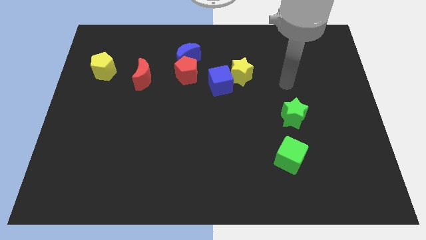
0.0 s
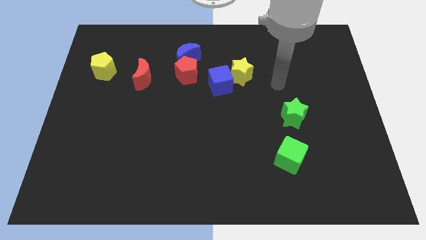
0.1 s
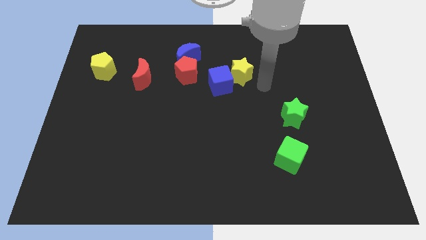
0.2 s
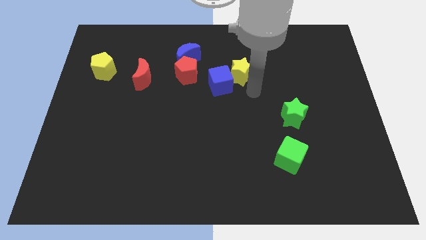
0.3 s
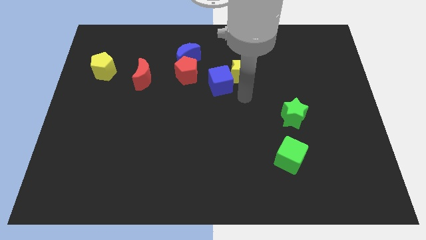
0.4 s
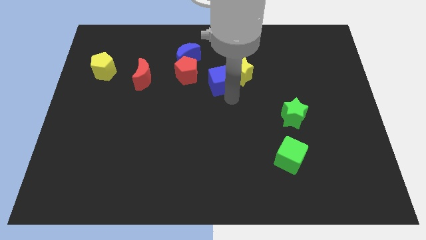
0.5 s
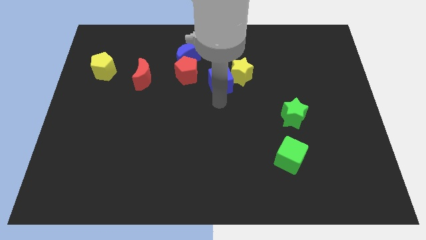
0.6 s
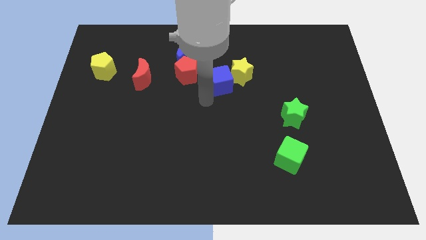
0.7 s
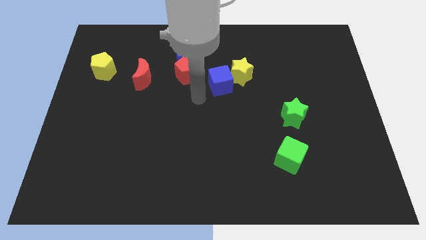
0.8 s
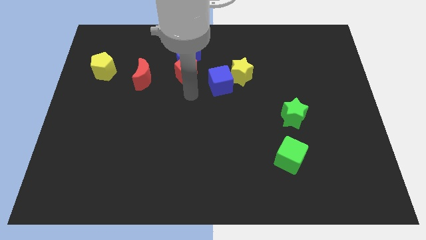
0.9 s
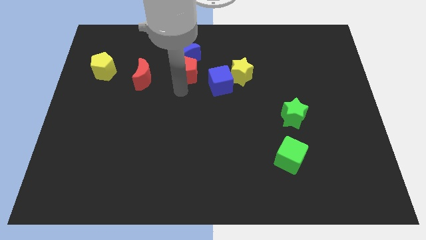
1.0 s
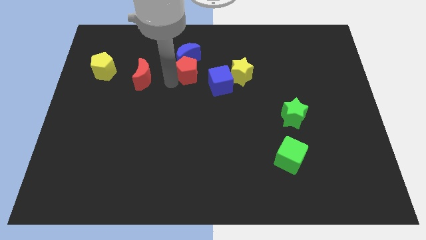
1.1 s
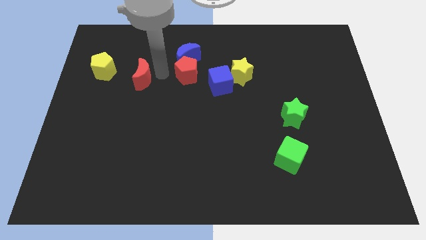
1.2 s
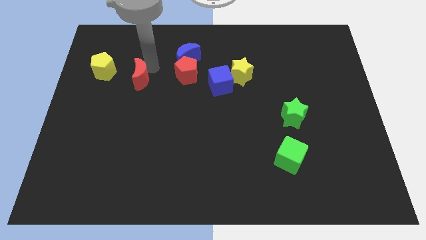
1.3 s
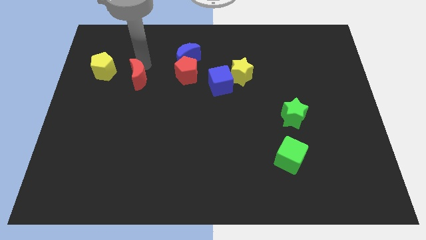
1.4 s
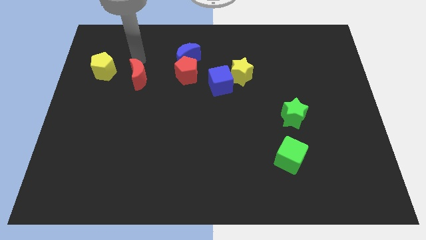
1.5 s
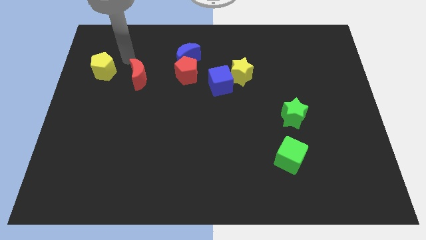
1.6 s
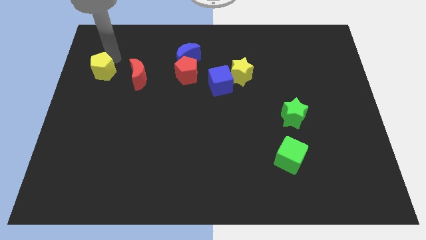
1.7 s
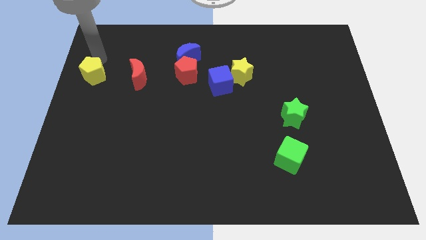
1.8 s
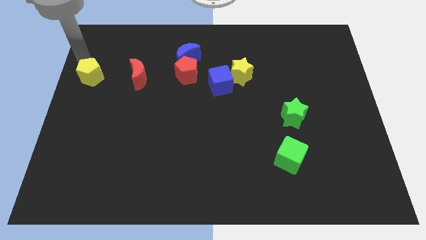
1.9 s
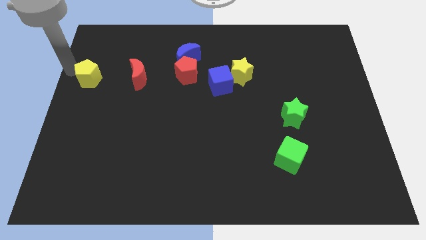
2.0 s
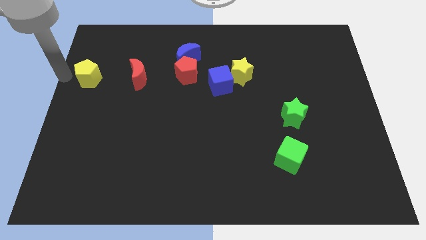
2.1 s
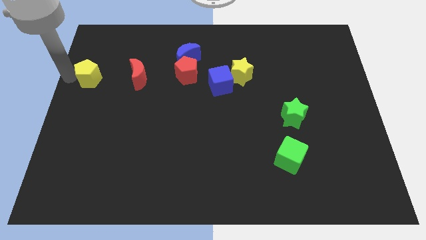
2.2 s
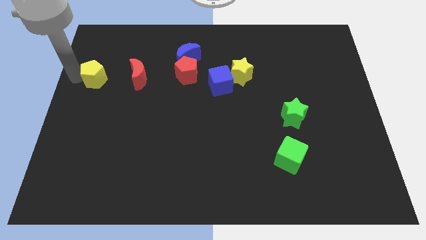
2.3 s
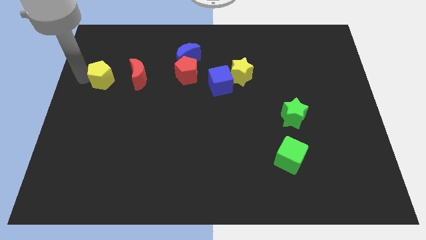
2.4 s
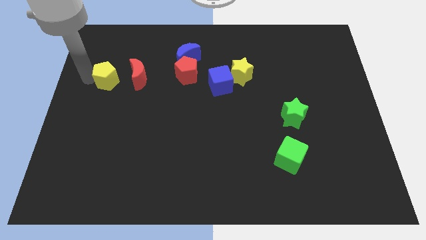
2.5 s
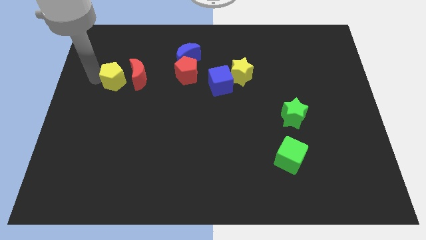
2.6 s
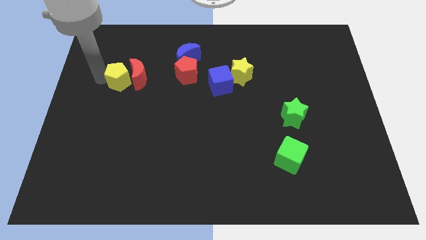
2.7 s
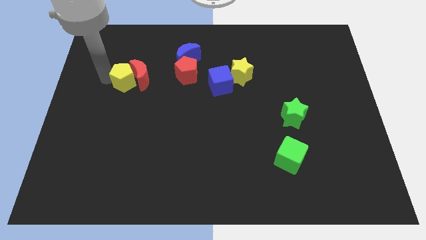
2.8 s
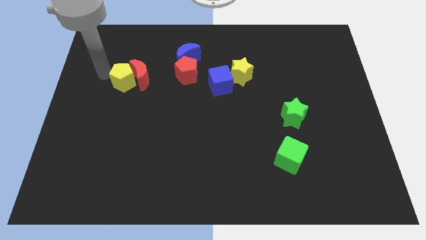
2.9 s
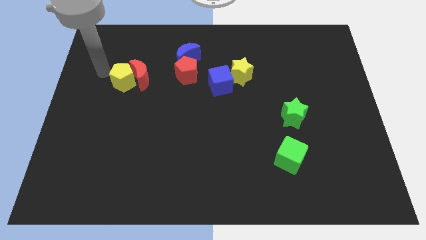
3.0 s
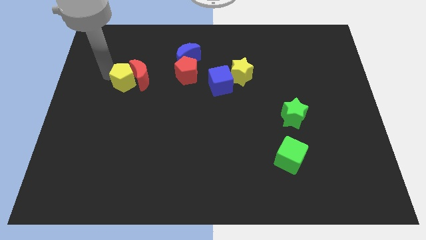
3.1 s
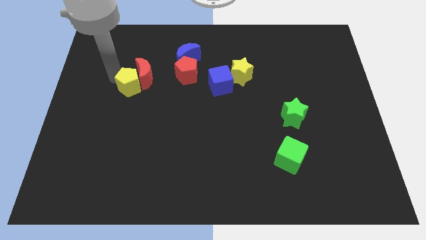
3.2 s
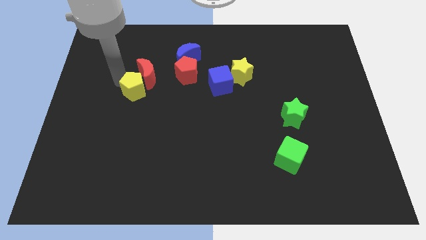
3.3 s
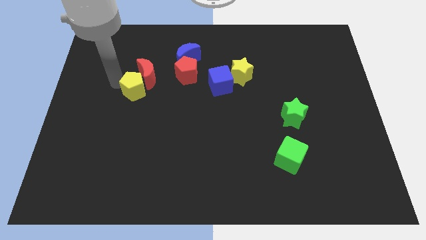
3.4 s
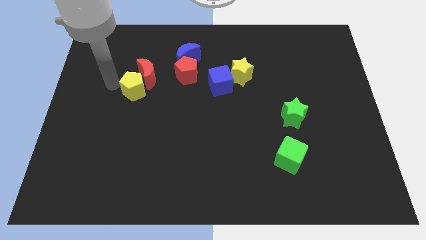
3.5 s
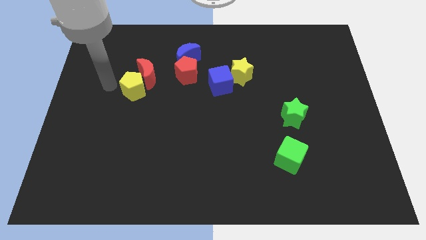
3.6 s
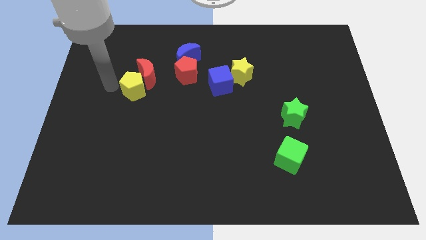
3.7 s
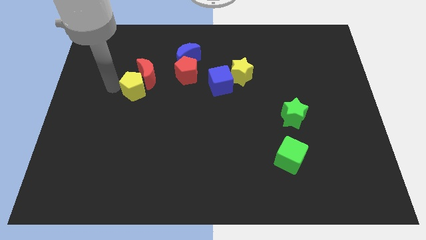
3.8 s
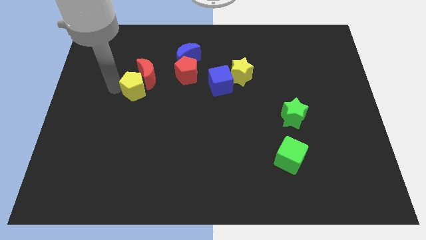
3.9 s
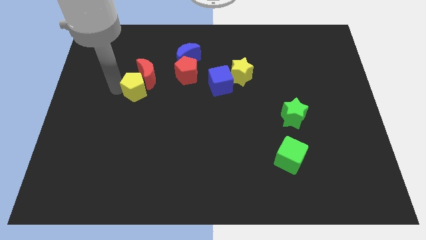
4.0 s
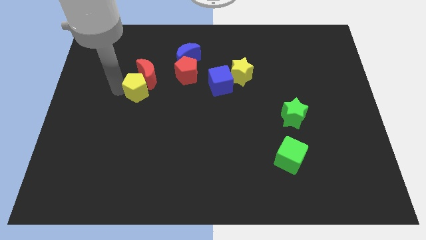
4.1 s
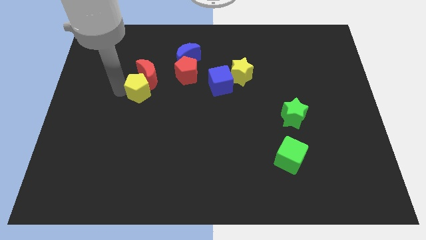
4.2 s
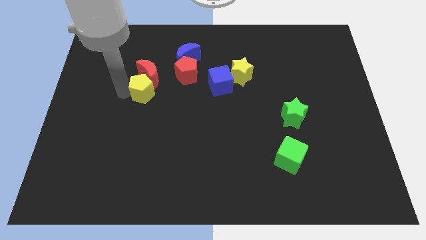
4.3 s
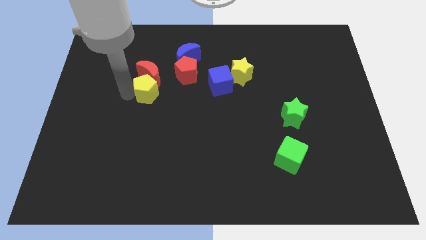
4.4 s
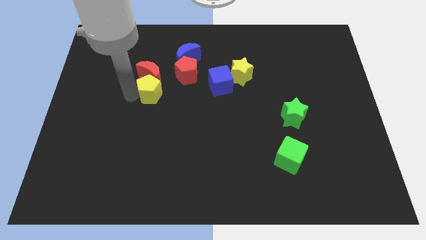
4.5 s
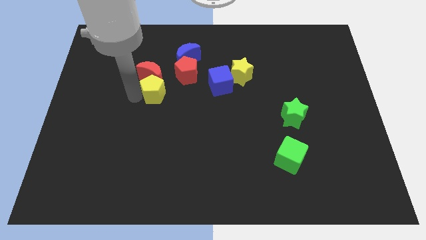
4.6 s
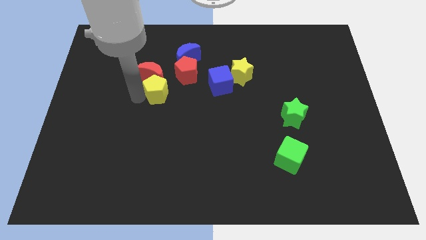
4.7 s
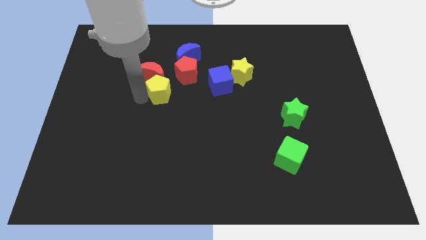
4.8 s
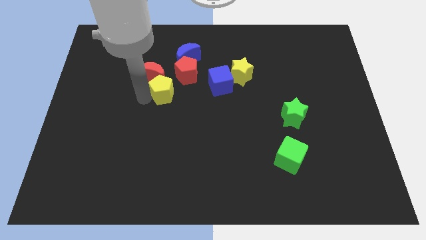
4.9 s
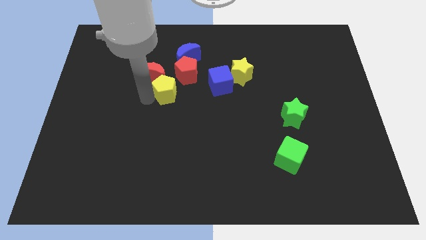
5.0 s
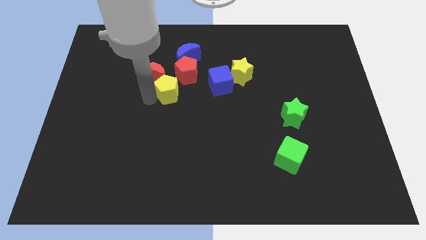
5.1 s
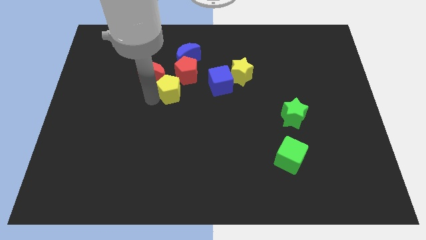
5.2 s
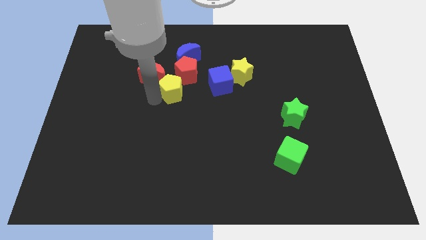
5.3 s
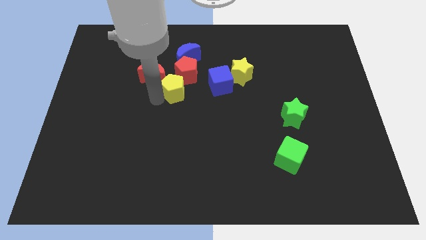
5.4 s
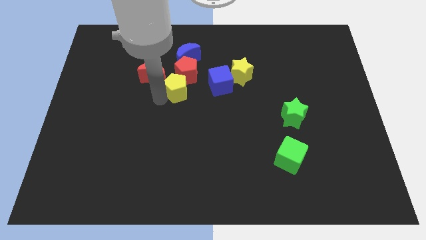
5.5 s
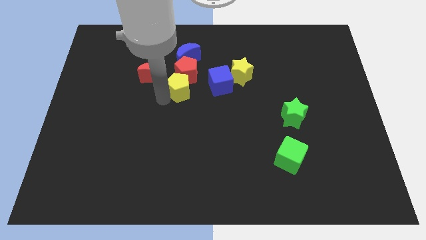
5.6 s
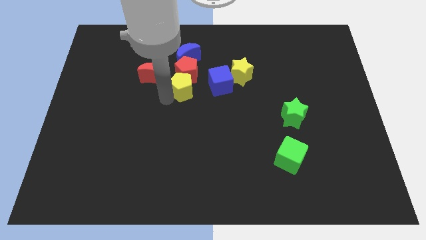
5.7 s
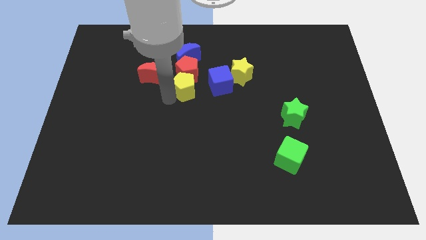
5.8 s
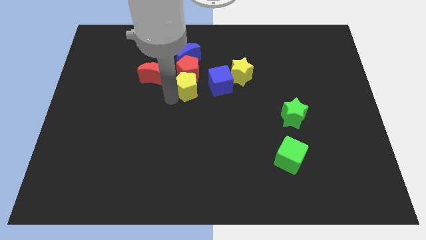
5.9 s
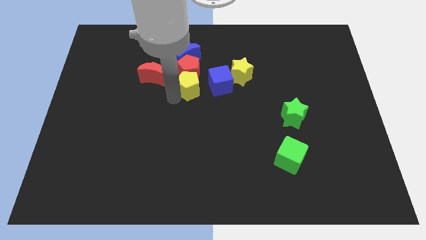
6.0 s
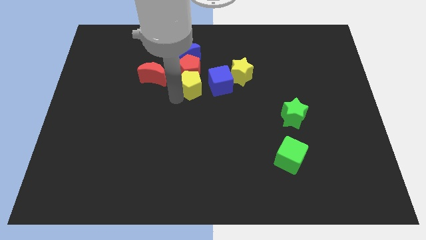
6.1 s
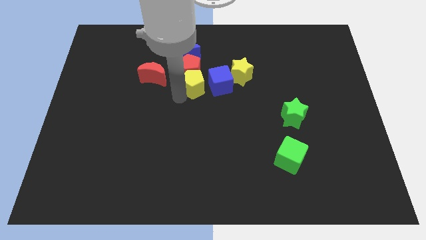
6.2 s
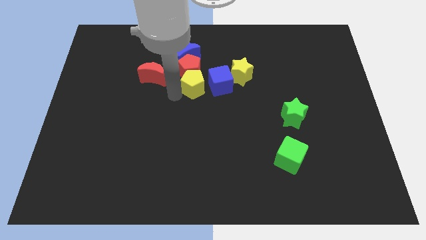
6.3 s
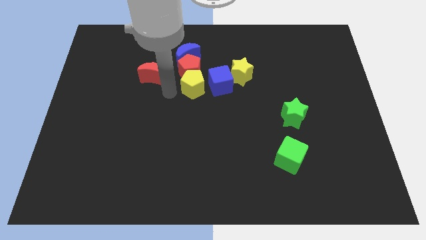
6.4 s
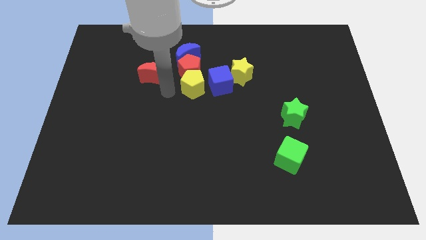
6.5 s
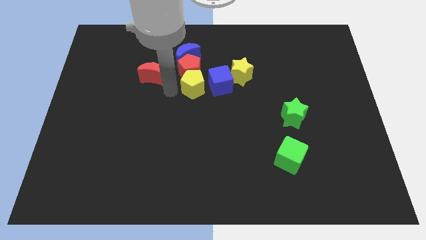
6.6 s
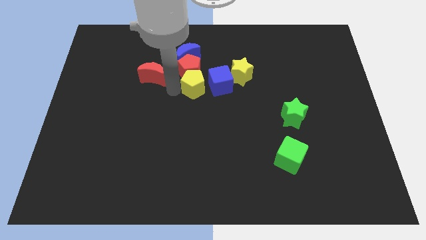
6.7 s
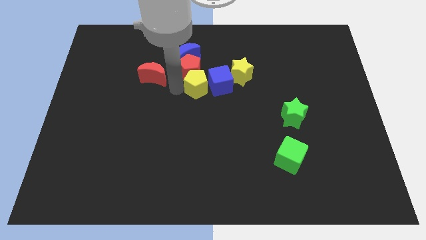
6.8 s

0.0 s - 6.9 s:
push the yellow pentagon to the blue cube
